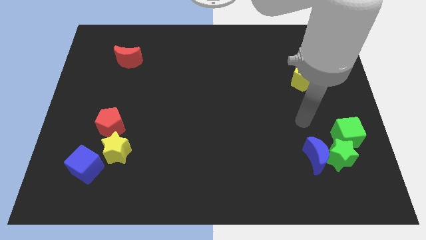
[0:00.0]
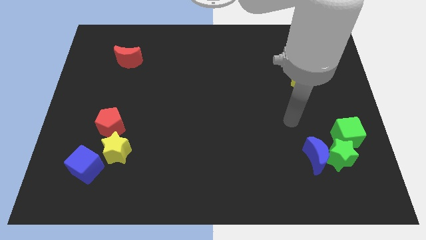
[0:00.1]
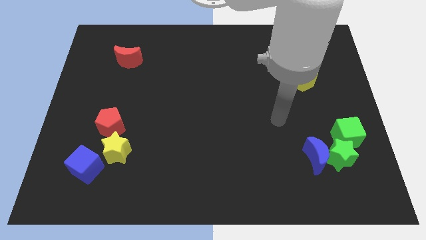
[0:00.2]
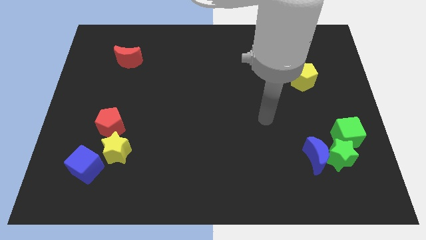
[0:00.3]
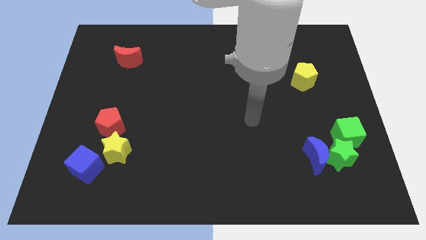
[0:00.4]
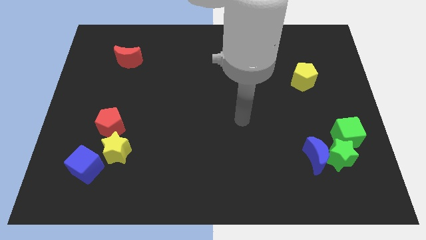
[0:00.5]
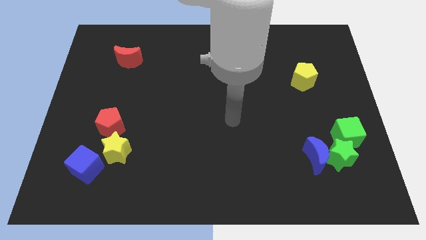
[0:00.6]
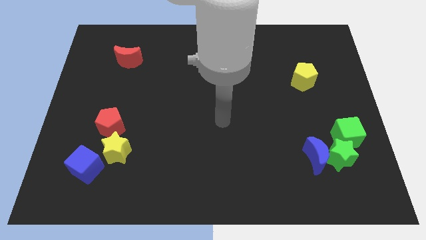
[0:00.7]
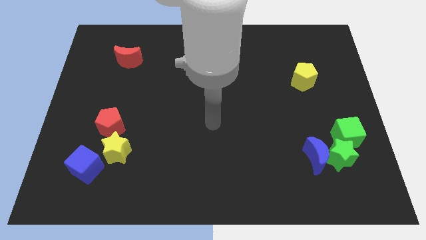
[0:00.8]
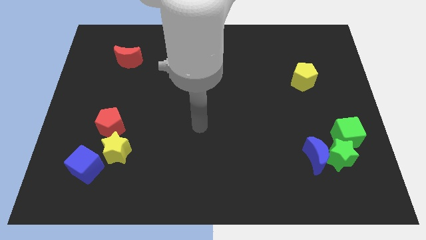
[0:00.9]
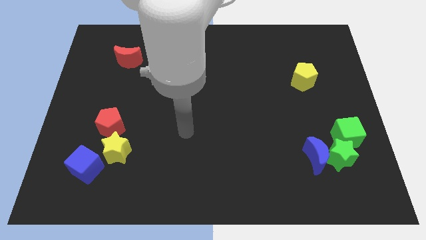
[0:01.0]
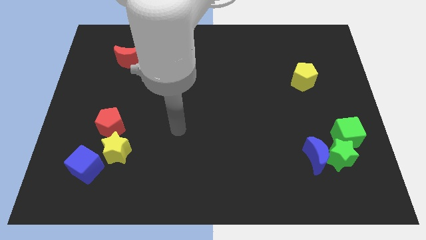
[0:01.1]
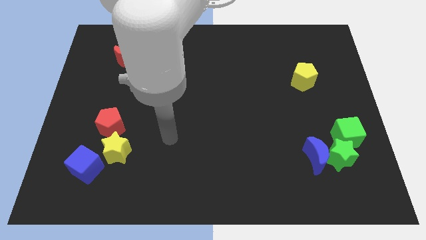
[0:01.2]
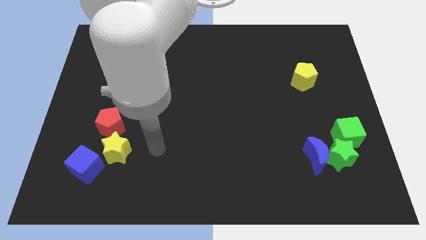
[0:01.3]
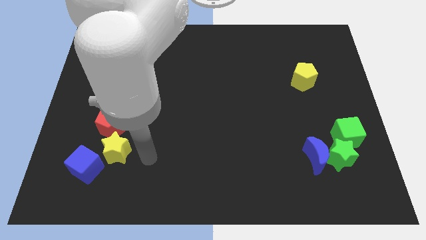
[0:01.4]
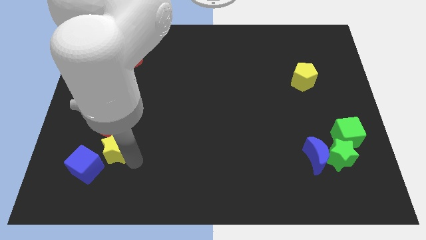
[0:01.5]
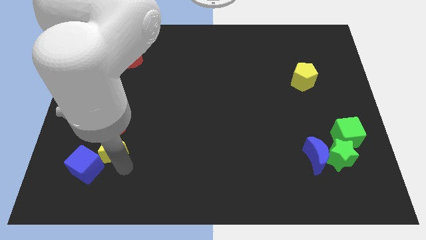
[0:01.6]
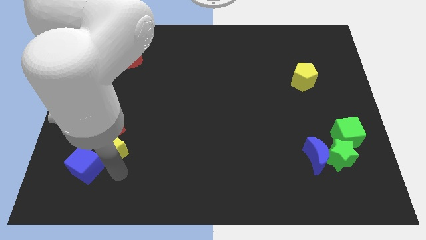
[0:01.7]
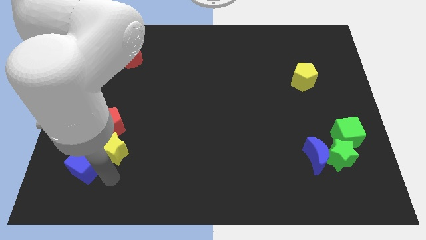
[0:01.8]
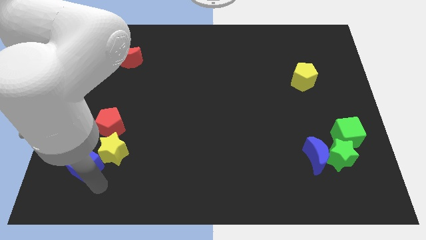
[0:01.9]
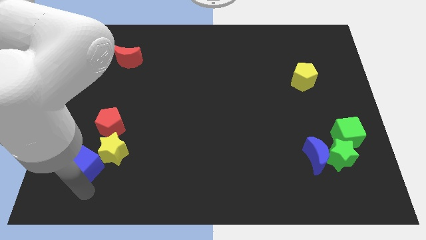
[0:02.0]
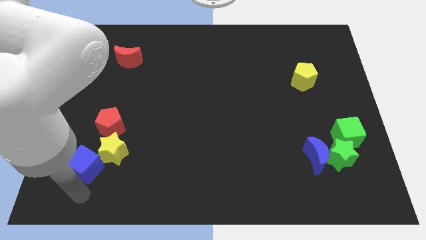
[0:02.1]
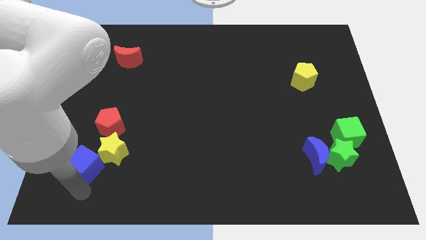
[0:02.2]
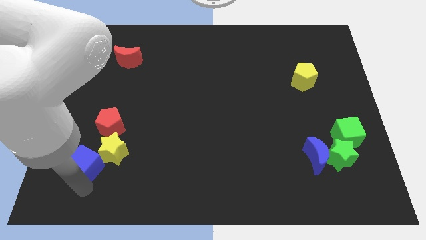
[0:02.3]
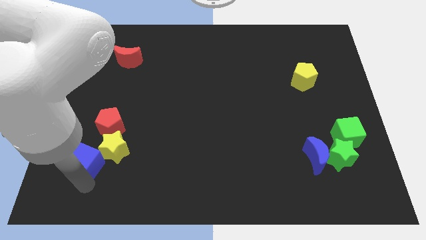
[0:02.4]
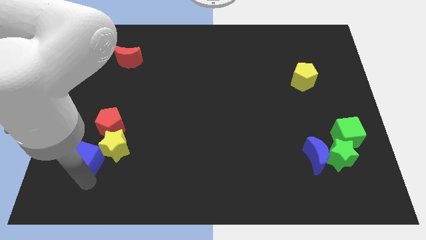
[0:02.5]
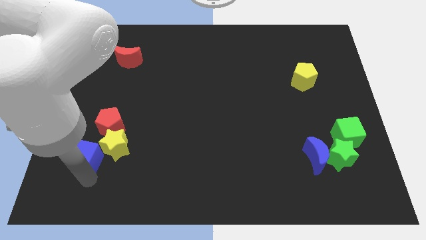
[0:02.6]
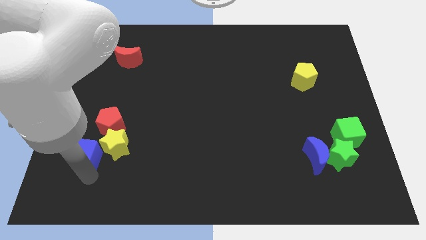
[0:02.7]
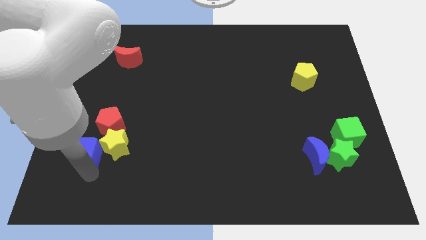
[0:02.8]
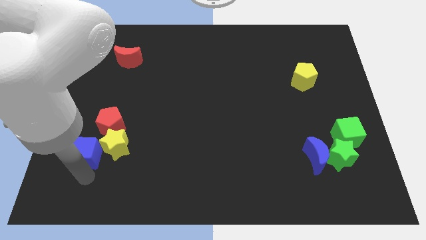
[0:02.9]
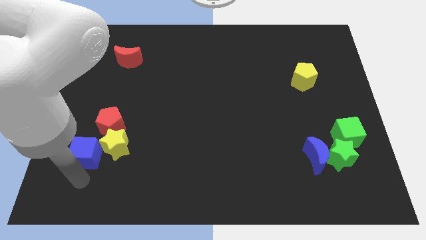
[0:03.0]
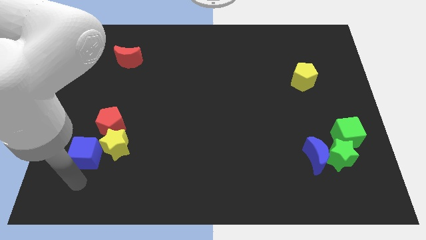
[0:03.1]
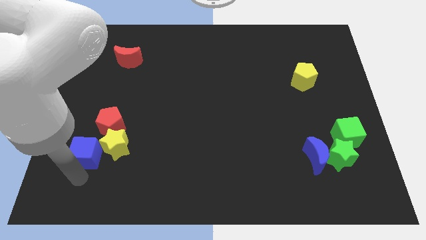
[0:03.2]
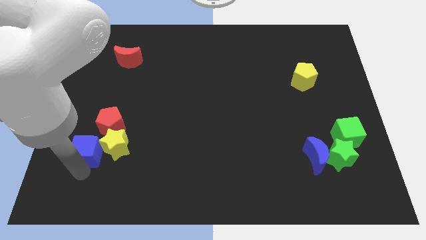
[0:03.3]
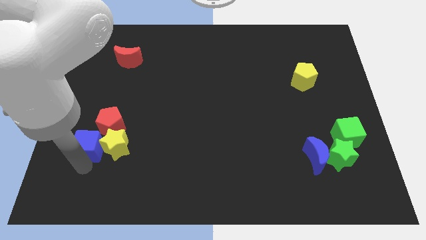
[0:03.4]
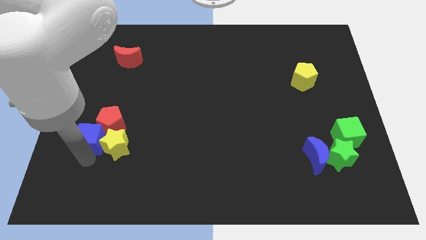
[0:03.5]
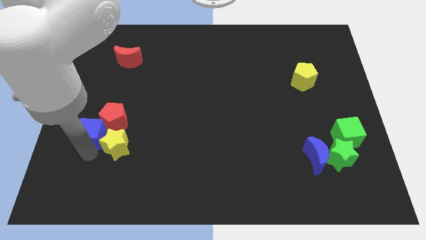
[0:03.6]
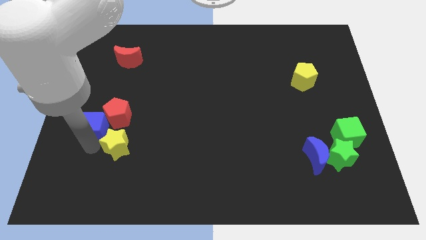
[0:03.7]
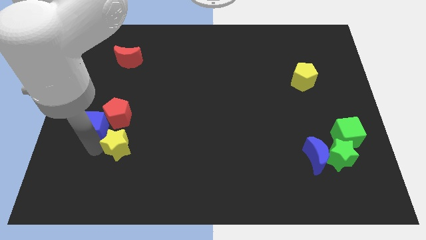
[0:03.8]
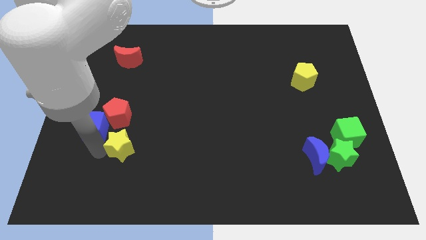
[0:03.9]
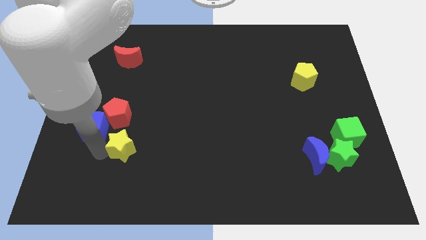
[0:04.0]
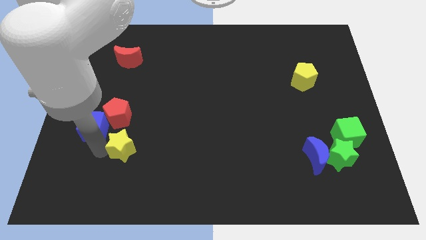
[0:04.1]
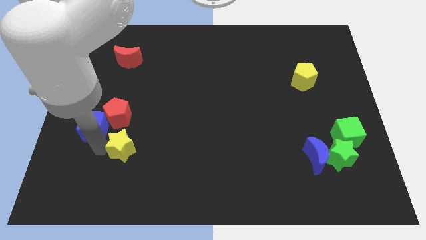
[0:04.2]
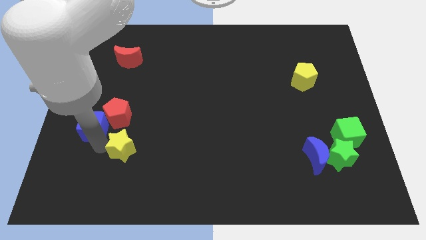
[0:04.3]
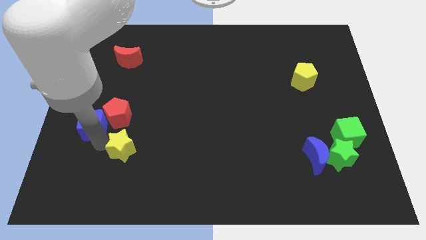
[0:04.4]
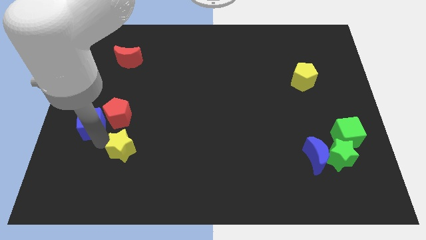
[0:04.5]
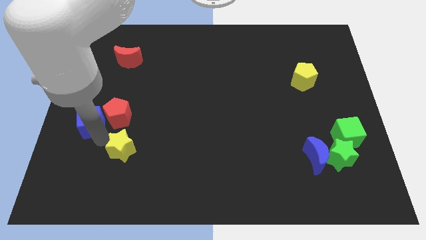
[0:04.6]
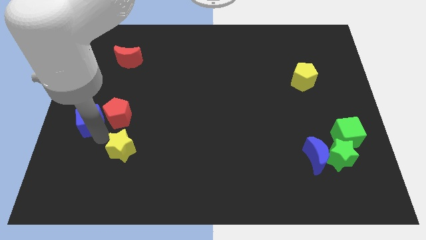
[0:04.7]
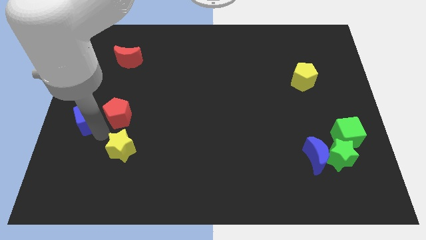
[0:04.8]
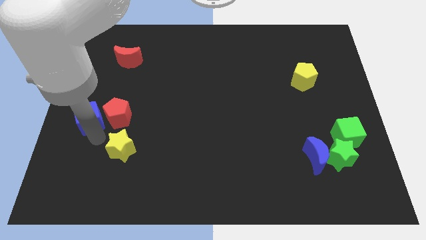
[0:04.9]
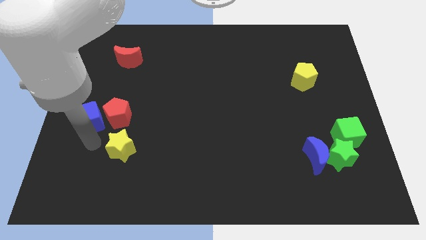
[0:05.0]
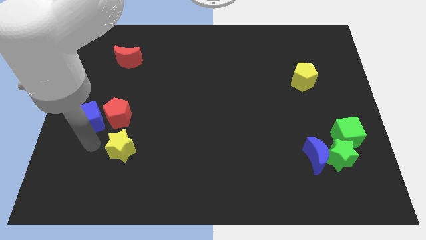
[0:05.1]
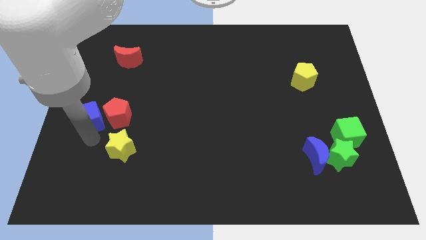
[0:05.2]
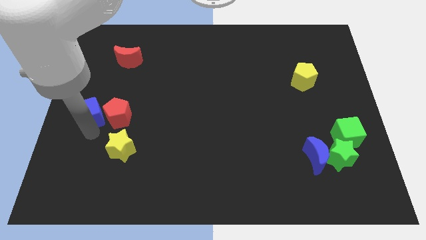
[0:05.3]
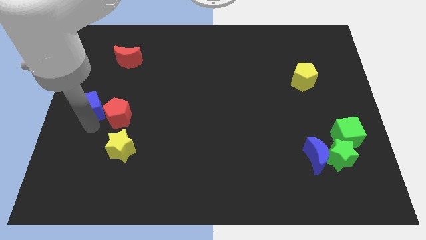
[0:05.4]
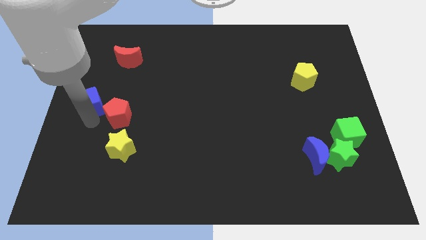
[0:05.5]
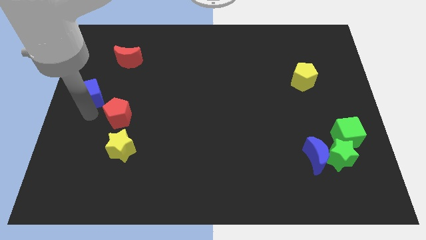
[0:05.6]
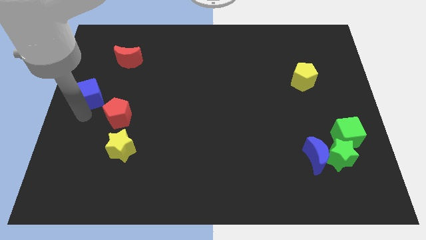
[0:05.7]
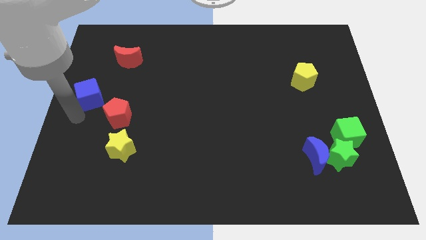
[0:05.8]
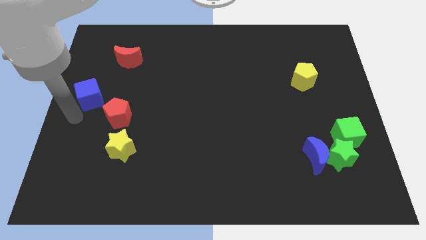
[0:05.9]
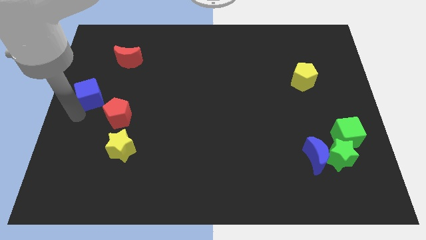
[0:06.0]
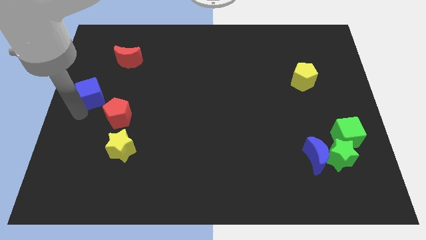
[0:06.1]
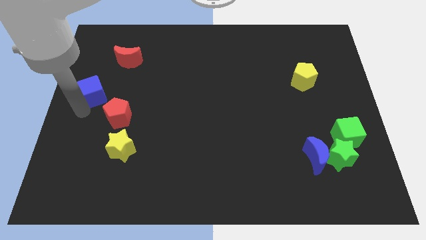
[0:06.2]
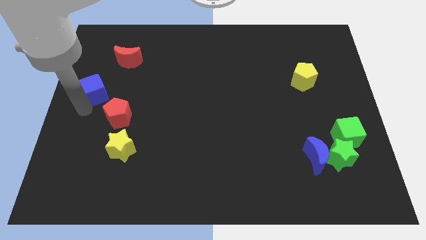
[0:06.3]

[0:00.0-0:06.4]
push the blue cube upwards

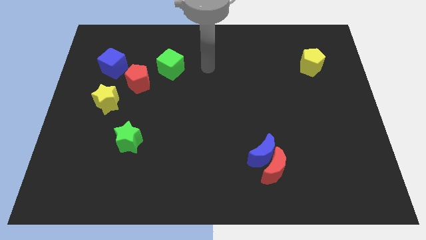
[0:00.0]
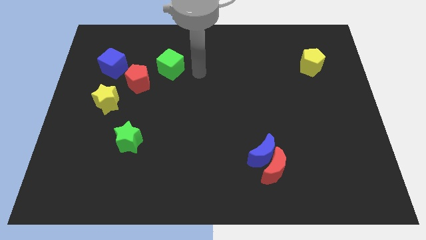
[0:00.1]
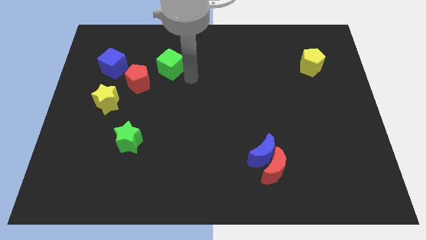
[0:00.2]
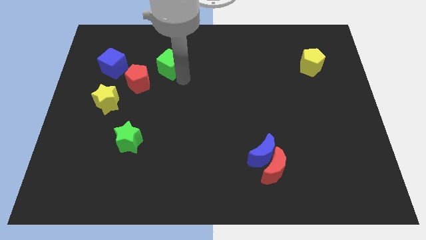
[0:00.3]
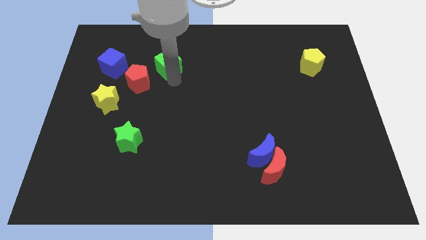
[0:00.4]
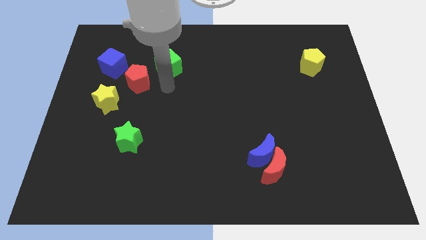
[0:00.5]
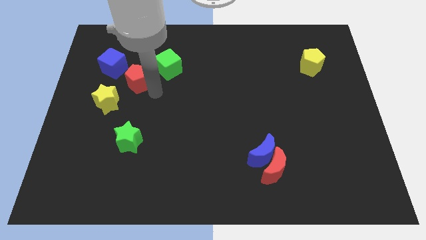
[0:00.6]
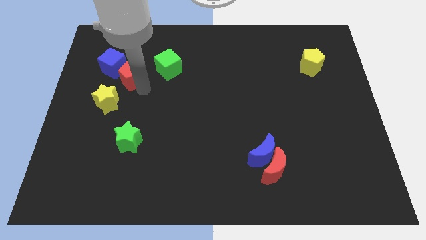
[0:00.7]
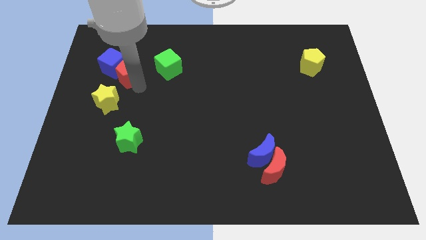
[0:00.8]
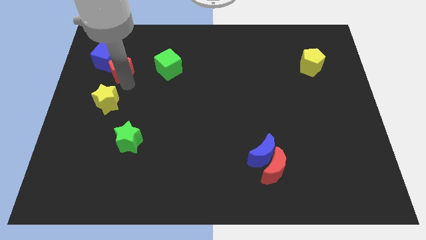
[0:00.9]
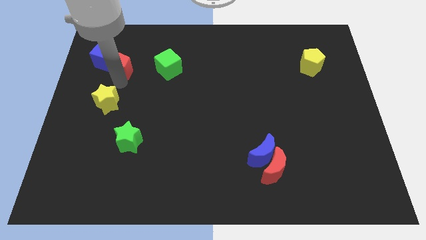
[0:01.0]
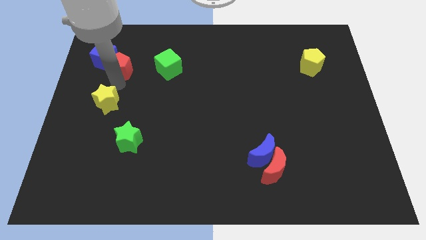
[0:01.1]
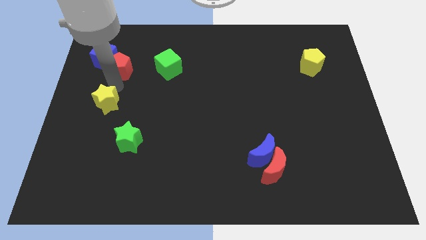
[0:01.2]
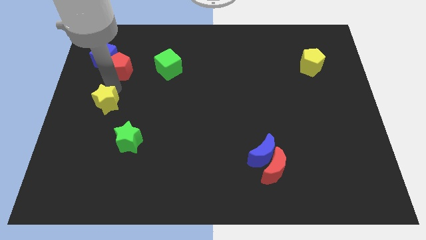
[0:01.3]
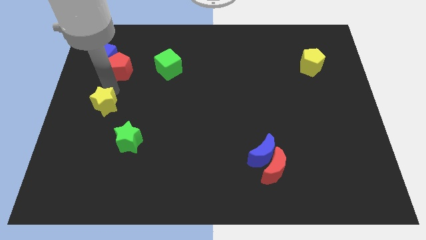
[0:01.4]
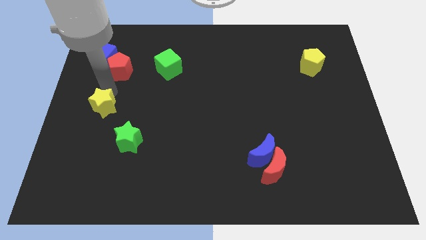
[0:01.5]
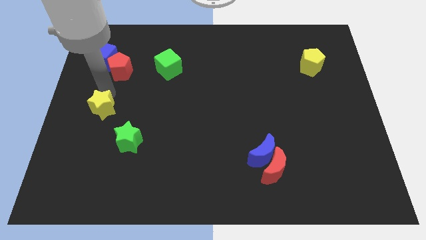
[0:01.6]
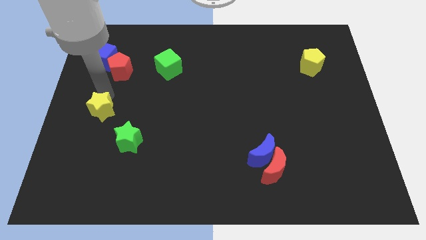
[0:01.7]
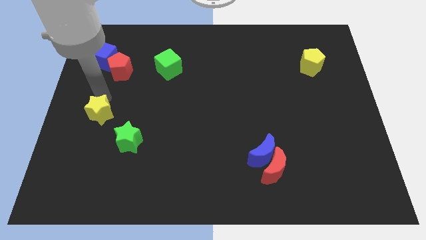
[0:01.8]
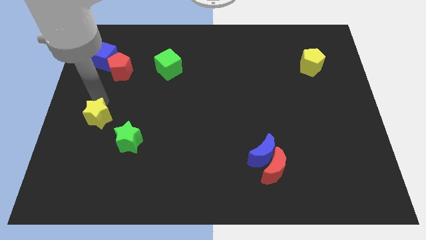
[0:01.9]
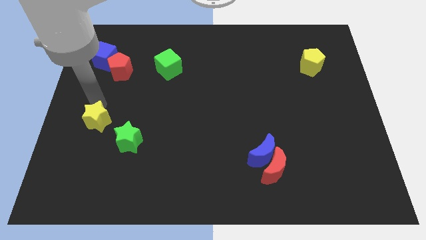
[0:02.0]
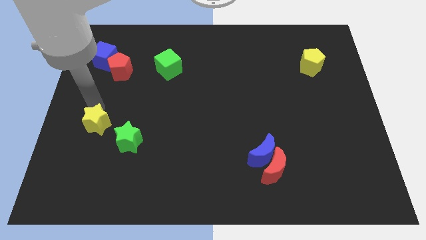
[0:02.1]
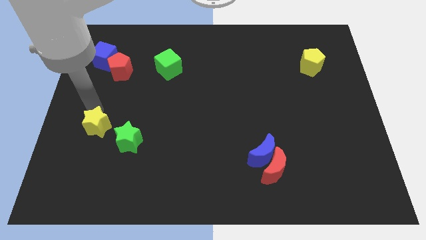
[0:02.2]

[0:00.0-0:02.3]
slightly move the yellow star down
